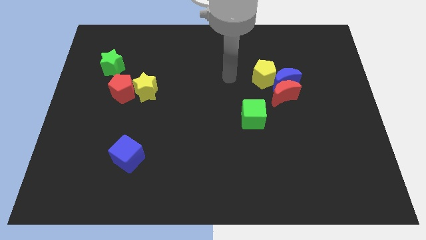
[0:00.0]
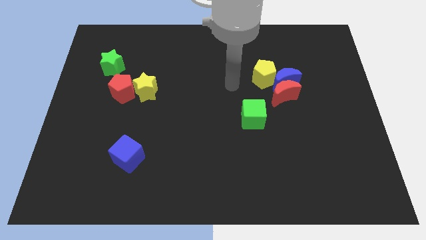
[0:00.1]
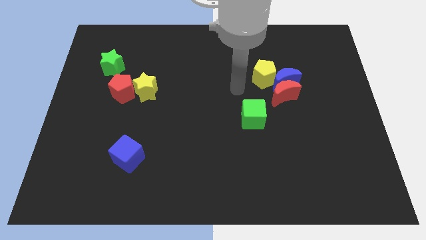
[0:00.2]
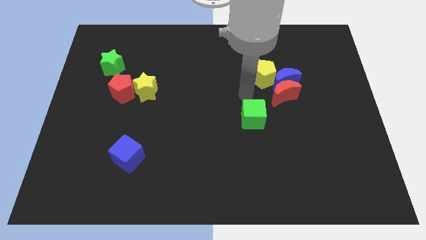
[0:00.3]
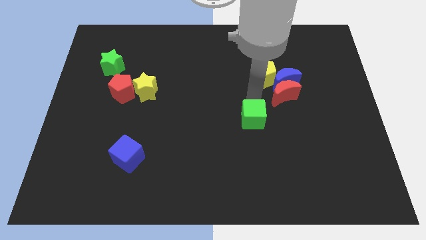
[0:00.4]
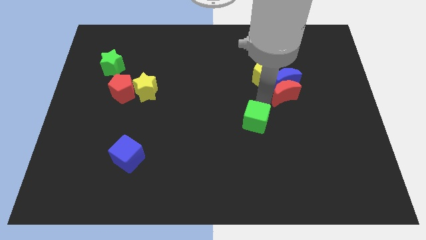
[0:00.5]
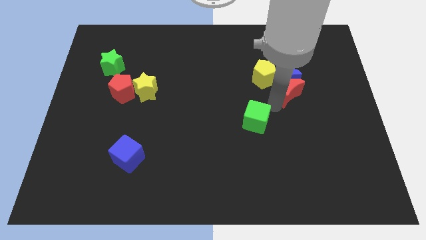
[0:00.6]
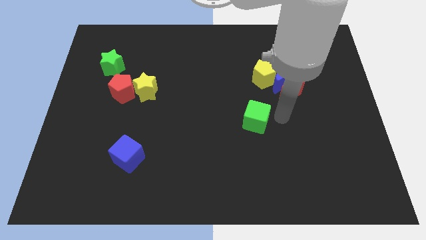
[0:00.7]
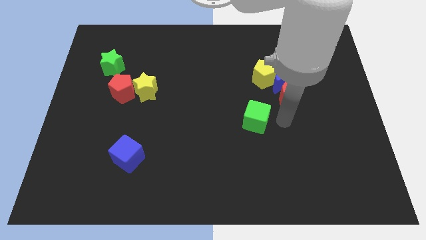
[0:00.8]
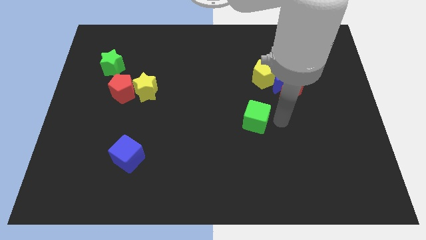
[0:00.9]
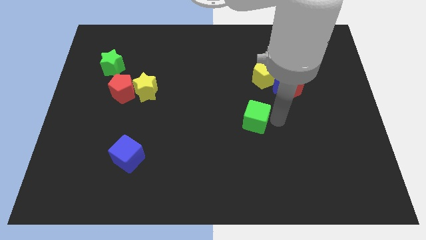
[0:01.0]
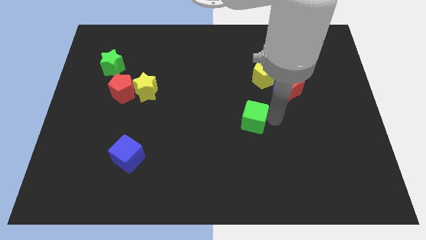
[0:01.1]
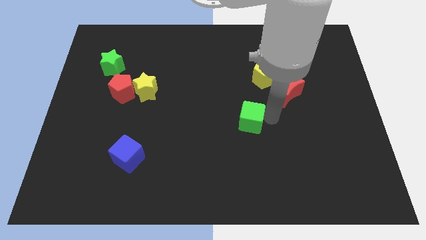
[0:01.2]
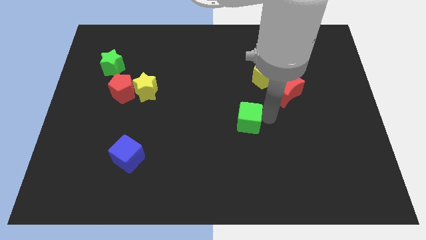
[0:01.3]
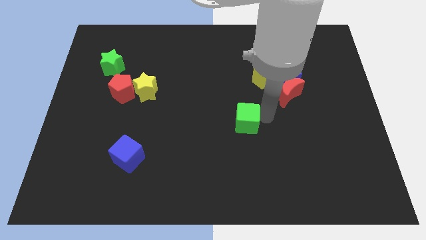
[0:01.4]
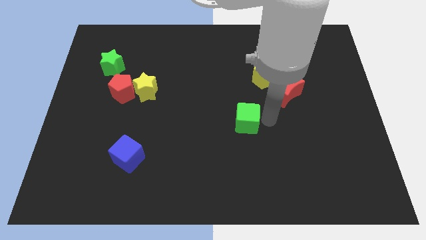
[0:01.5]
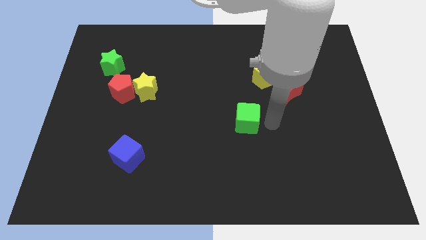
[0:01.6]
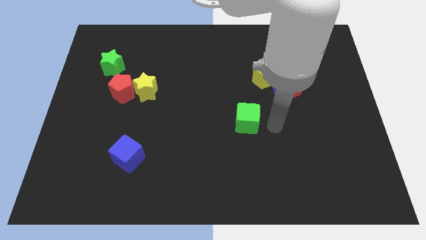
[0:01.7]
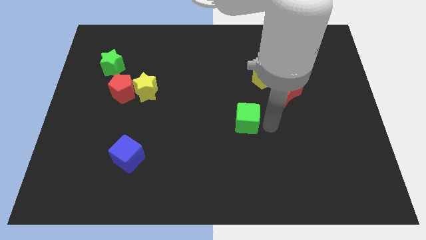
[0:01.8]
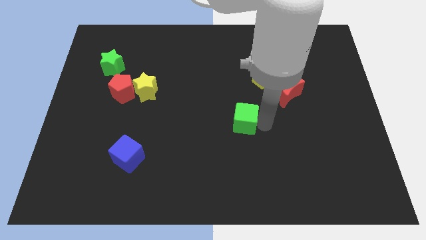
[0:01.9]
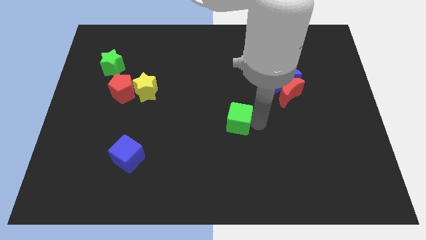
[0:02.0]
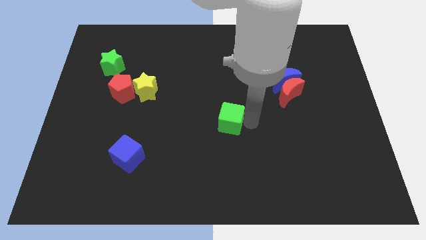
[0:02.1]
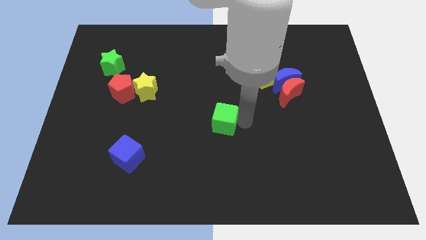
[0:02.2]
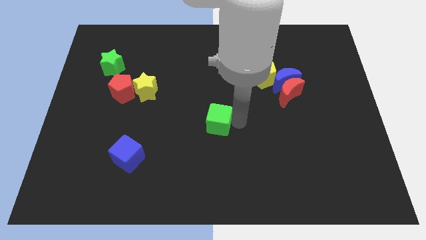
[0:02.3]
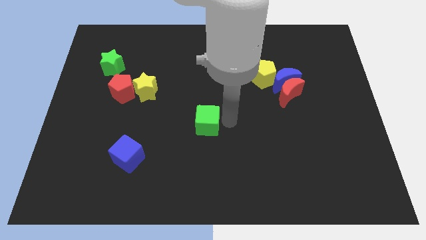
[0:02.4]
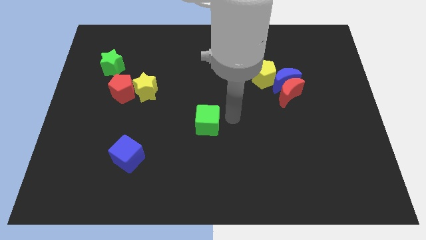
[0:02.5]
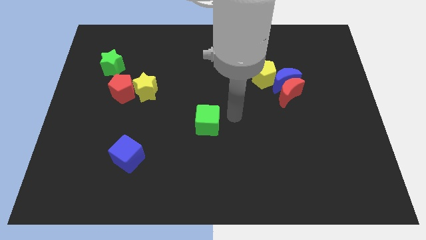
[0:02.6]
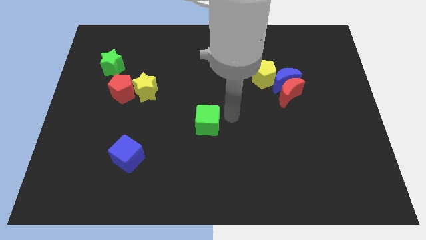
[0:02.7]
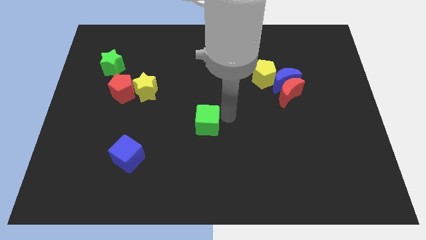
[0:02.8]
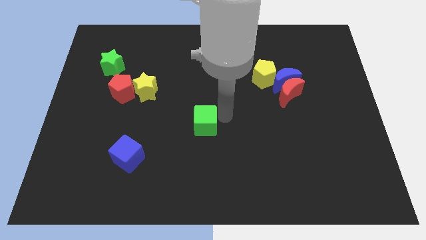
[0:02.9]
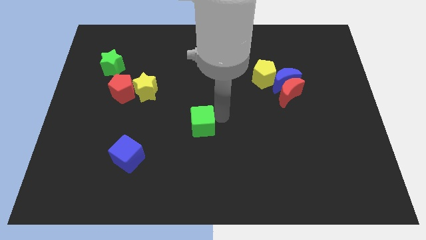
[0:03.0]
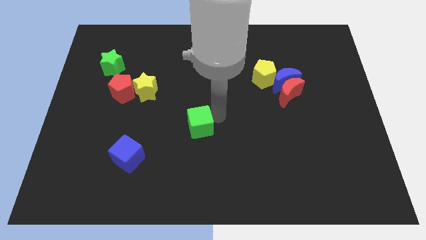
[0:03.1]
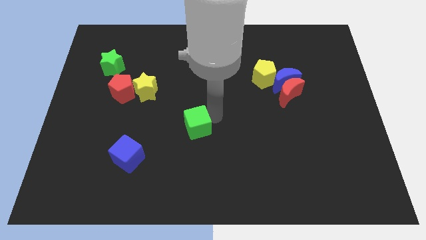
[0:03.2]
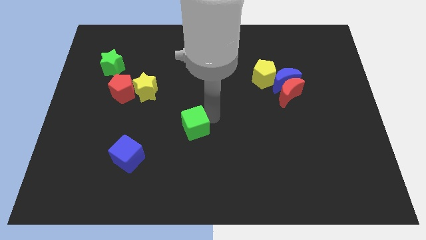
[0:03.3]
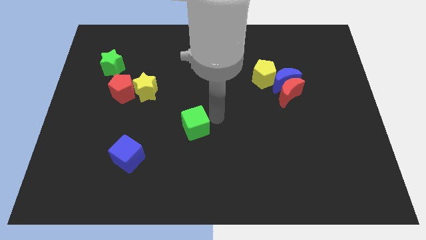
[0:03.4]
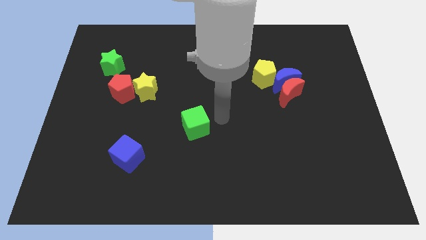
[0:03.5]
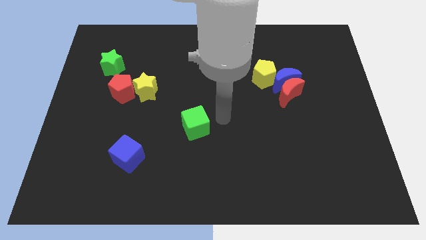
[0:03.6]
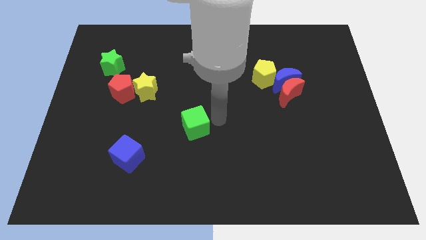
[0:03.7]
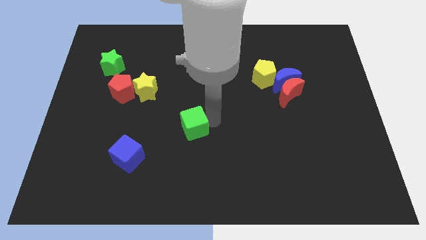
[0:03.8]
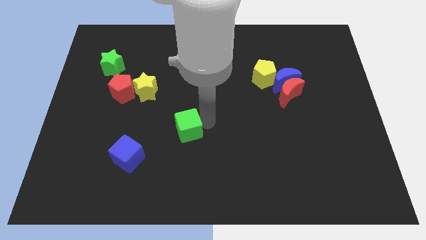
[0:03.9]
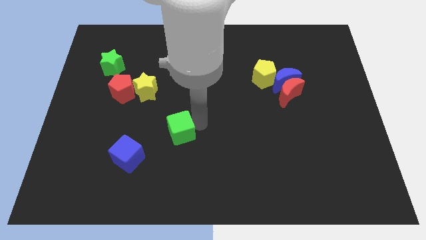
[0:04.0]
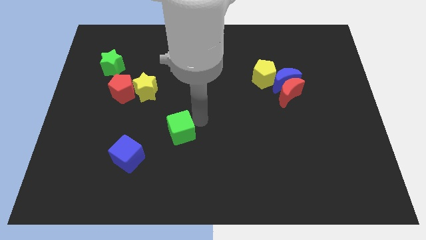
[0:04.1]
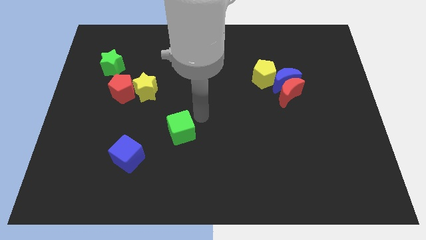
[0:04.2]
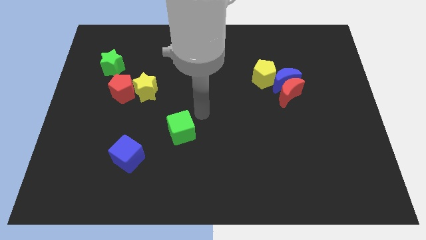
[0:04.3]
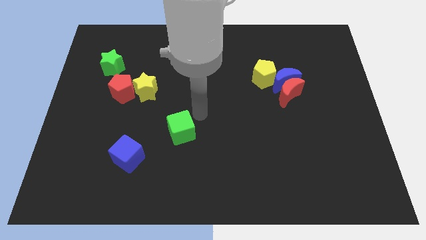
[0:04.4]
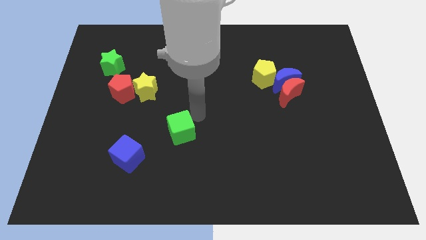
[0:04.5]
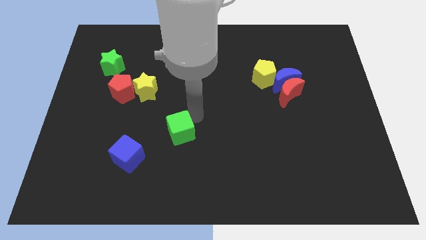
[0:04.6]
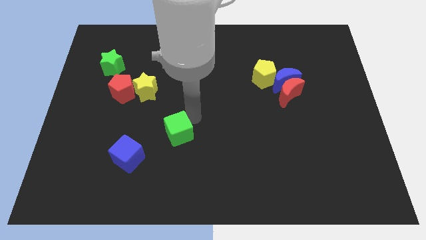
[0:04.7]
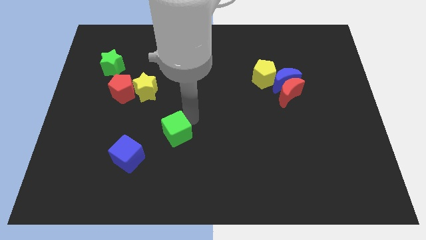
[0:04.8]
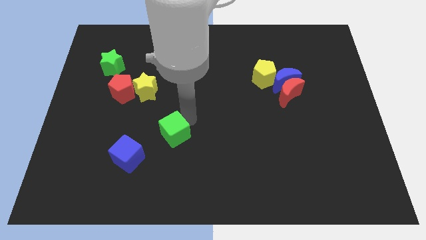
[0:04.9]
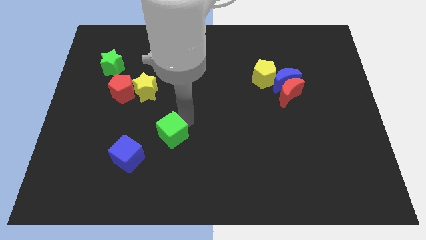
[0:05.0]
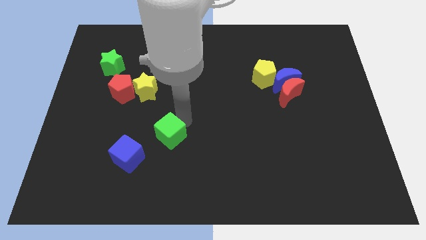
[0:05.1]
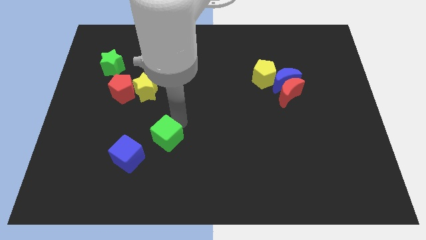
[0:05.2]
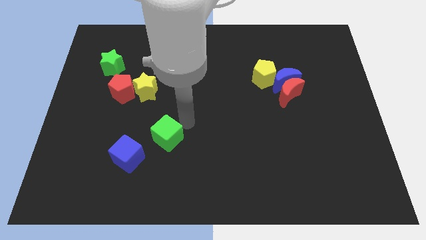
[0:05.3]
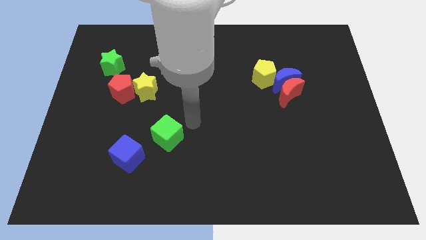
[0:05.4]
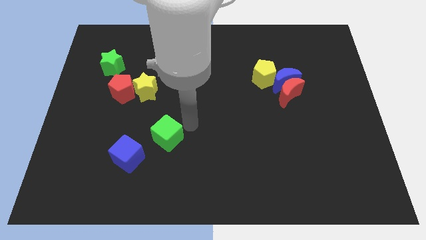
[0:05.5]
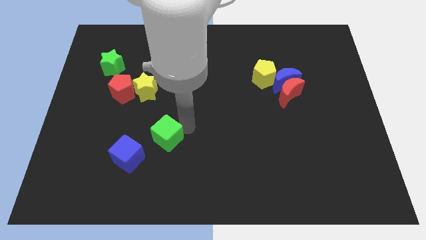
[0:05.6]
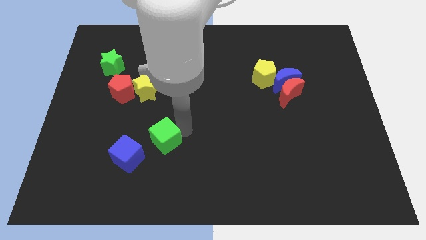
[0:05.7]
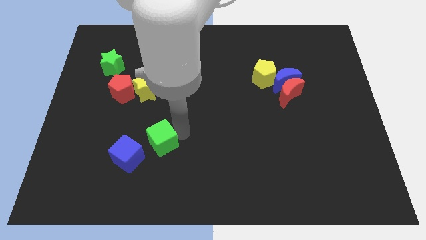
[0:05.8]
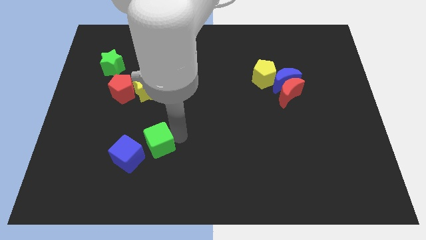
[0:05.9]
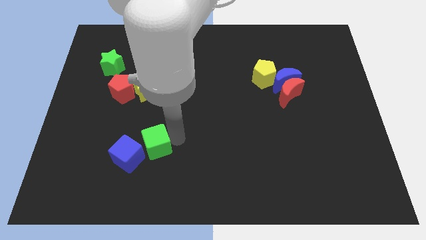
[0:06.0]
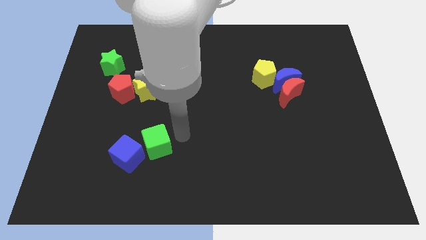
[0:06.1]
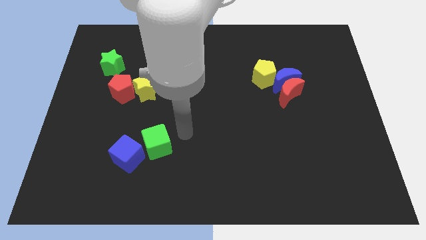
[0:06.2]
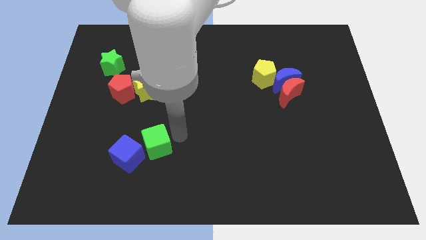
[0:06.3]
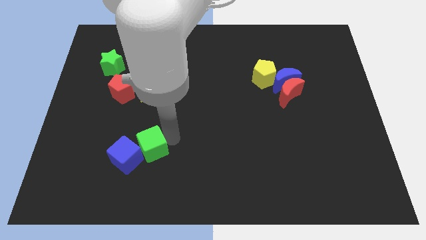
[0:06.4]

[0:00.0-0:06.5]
slide the green cube towards the blue cube

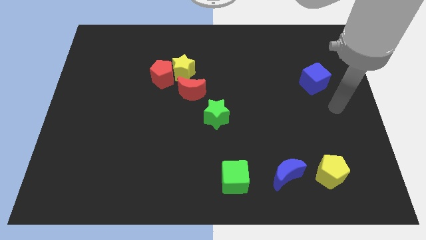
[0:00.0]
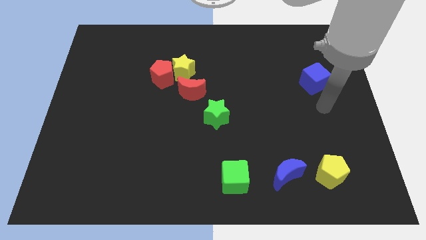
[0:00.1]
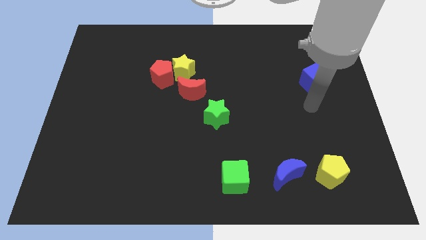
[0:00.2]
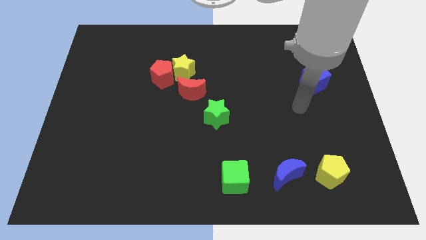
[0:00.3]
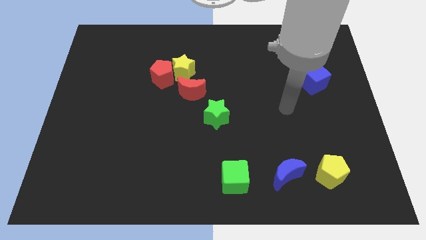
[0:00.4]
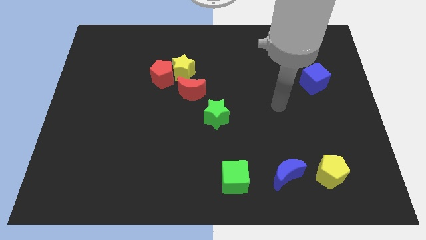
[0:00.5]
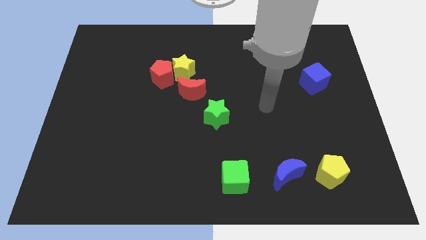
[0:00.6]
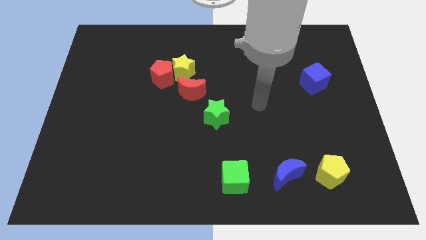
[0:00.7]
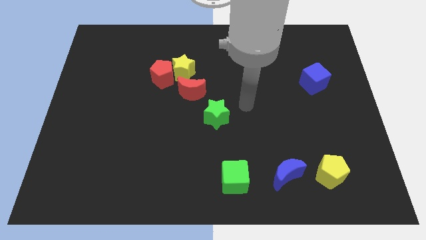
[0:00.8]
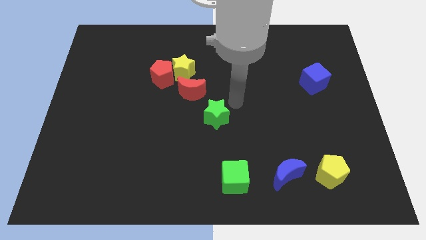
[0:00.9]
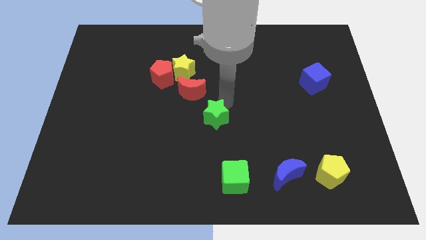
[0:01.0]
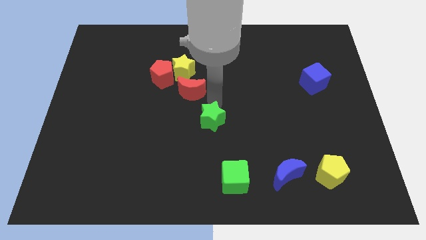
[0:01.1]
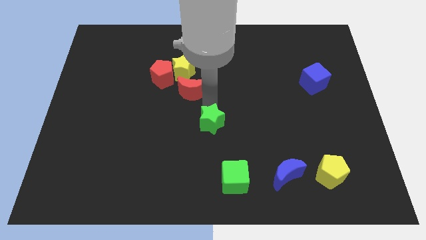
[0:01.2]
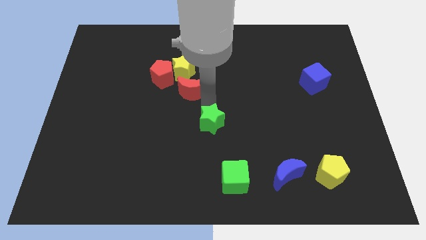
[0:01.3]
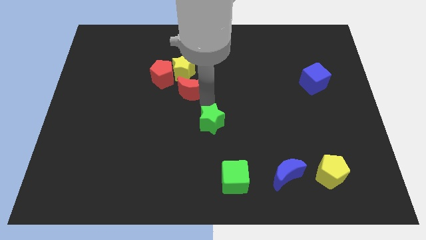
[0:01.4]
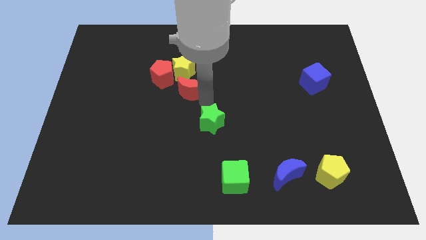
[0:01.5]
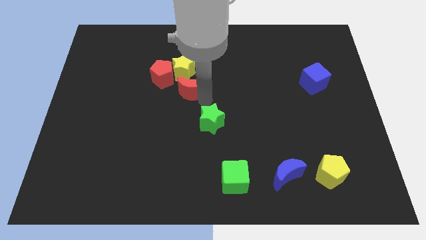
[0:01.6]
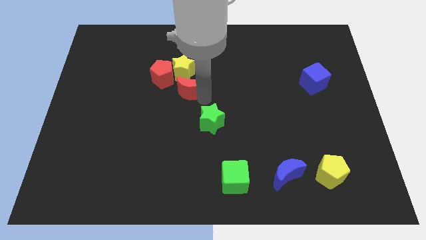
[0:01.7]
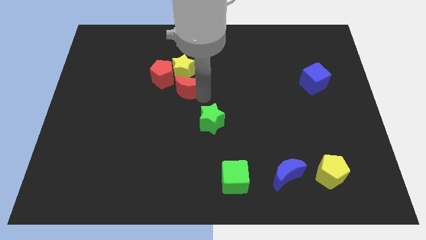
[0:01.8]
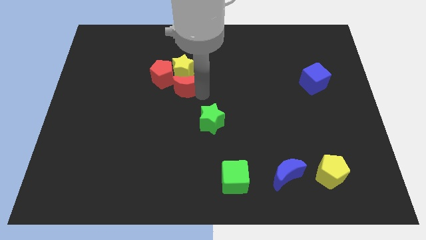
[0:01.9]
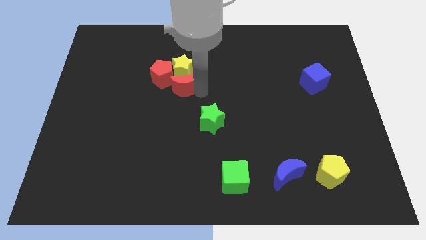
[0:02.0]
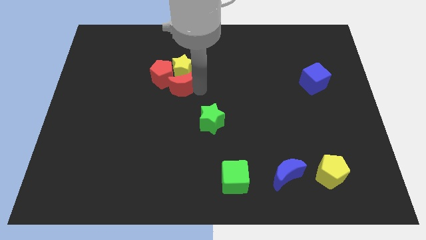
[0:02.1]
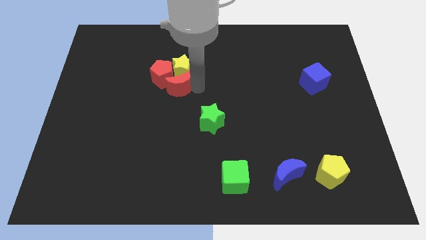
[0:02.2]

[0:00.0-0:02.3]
move the red moon towards the red pentagon
